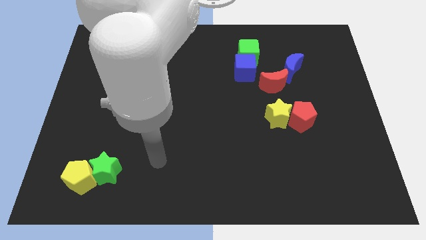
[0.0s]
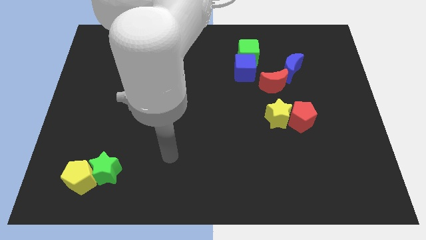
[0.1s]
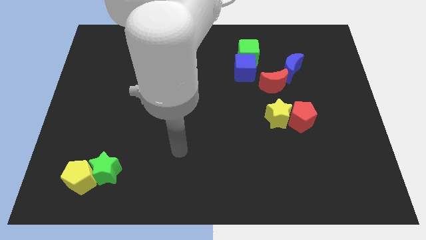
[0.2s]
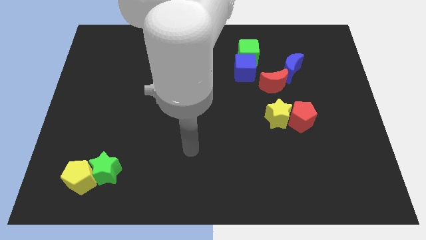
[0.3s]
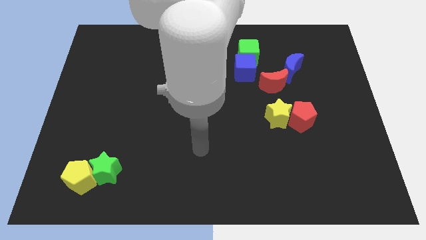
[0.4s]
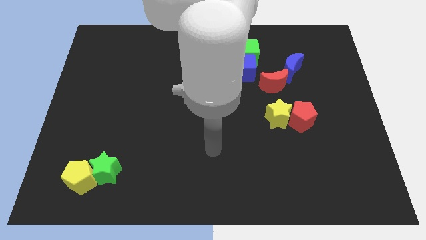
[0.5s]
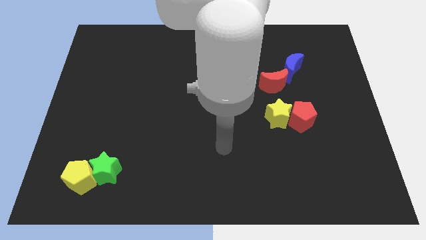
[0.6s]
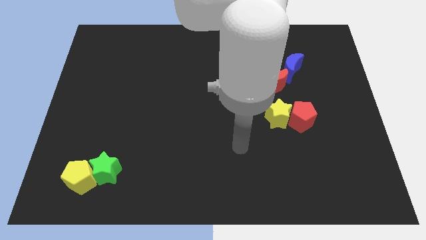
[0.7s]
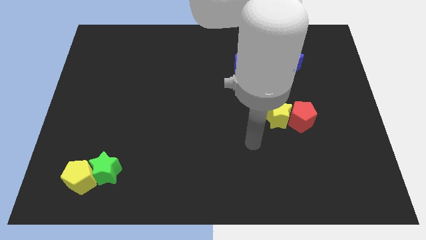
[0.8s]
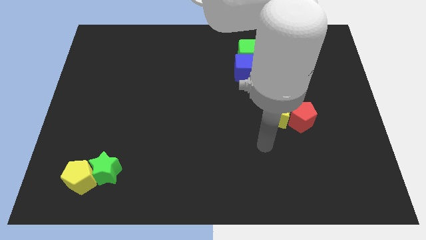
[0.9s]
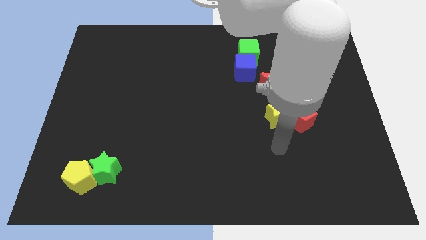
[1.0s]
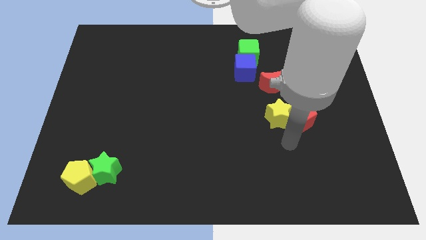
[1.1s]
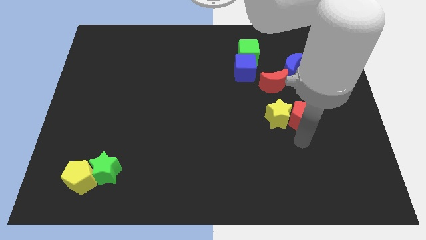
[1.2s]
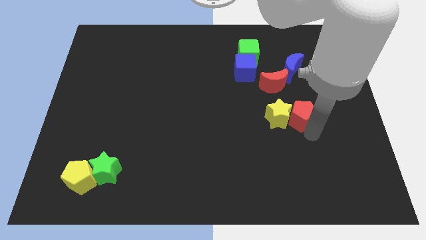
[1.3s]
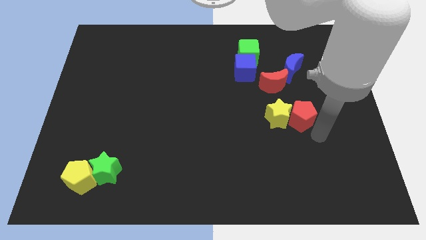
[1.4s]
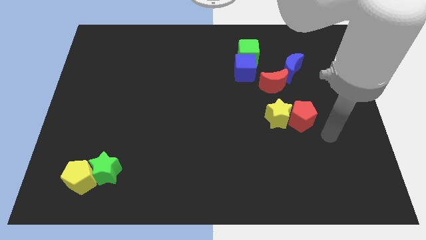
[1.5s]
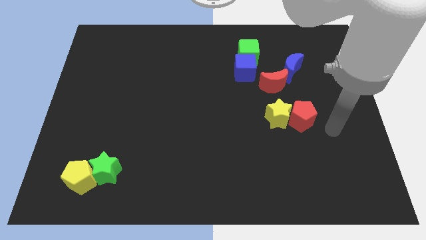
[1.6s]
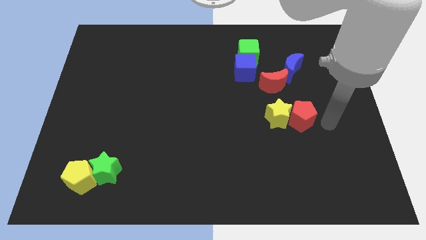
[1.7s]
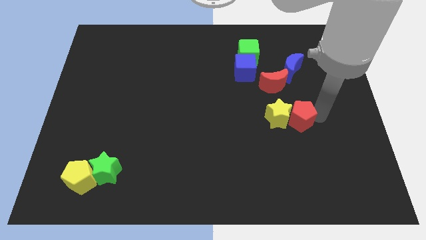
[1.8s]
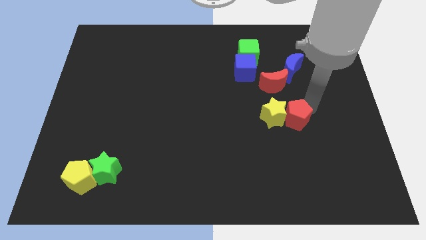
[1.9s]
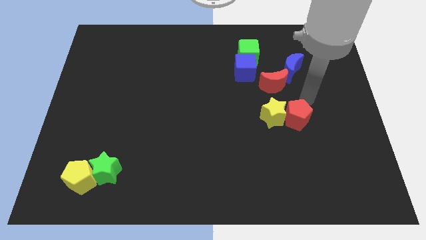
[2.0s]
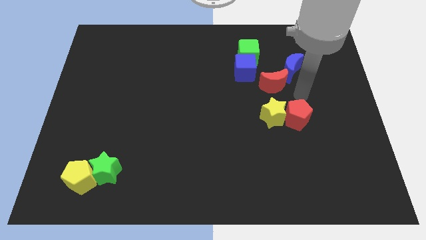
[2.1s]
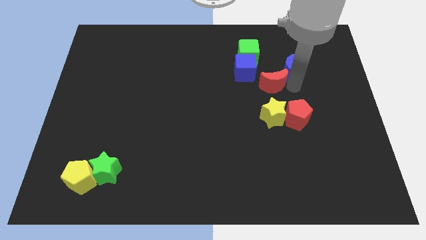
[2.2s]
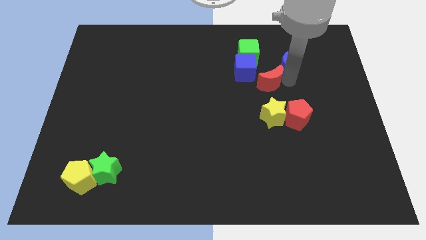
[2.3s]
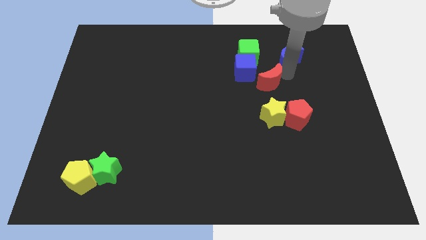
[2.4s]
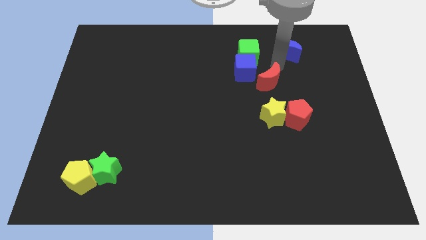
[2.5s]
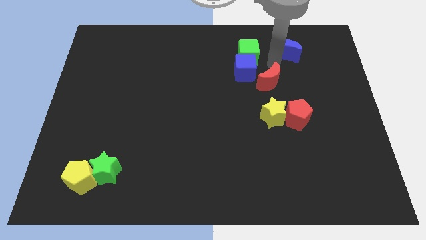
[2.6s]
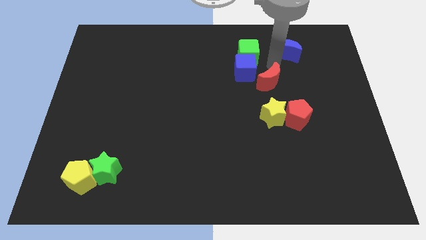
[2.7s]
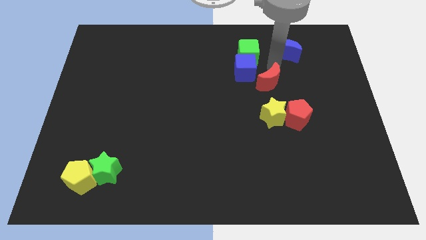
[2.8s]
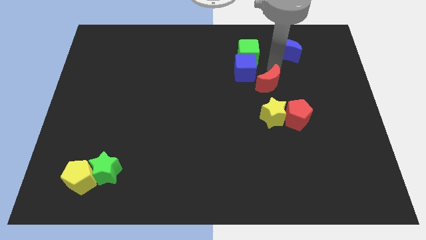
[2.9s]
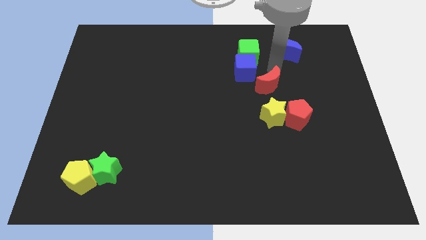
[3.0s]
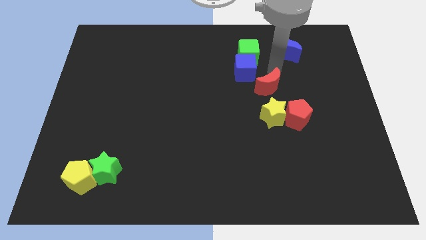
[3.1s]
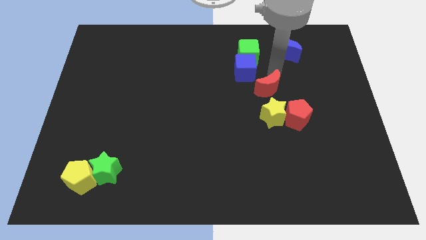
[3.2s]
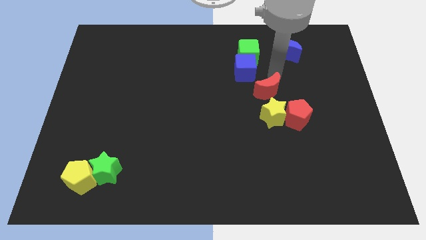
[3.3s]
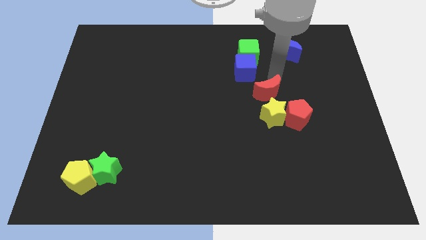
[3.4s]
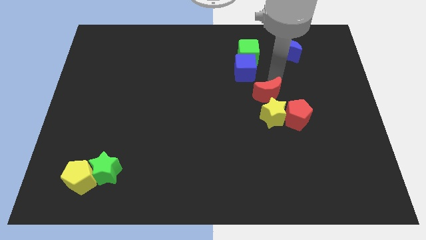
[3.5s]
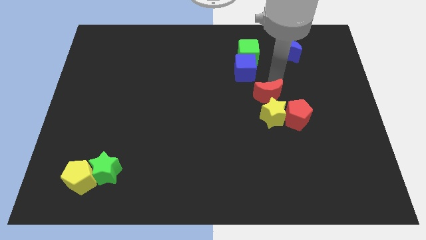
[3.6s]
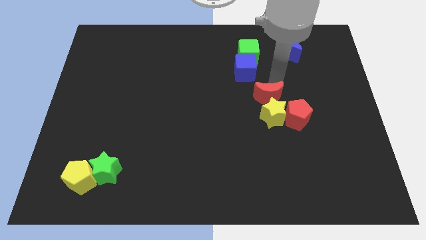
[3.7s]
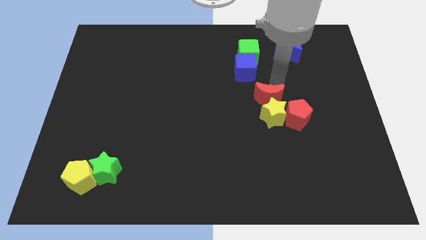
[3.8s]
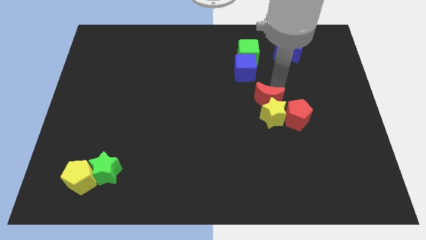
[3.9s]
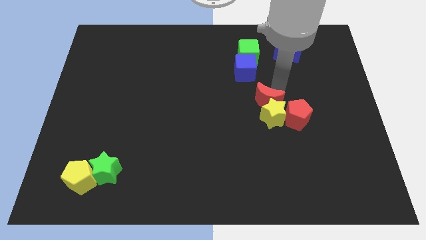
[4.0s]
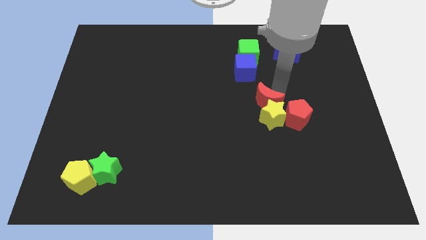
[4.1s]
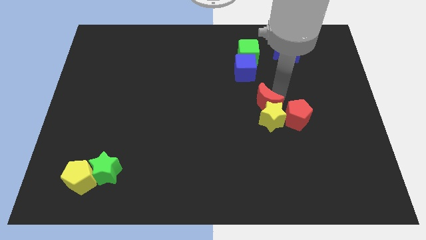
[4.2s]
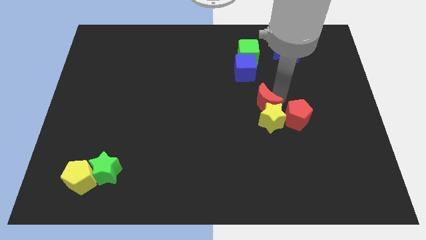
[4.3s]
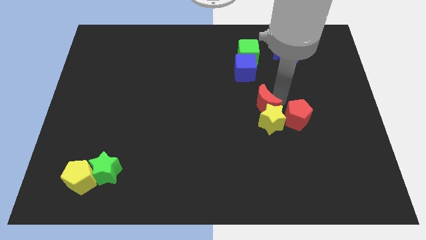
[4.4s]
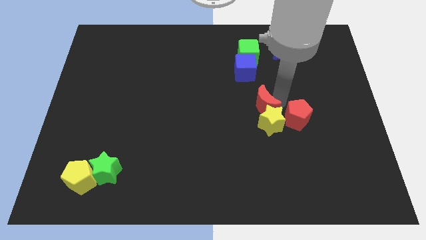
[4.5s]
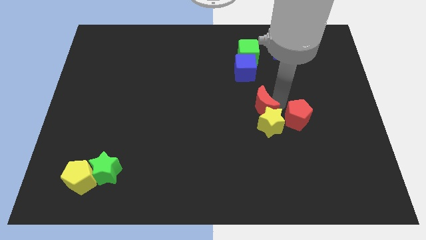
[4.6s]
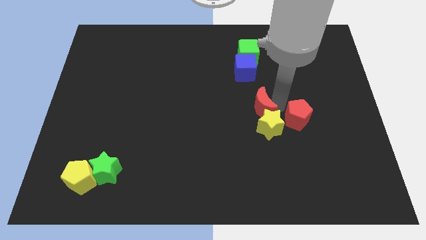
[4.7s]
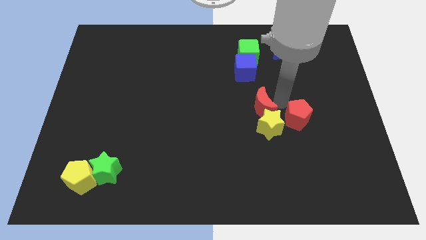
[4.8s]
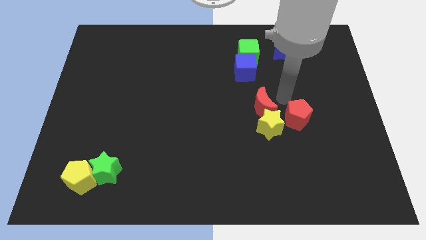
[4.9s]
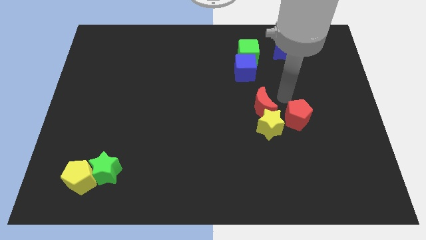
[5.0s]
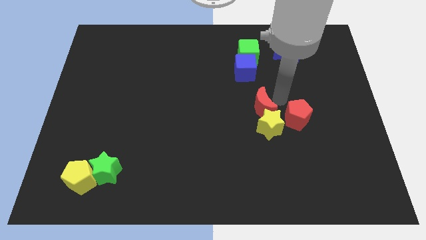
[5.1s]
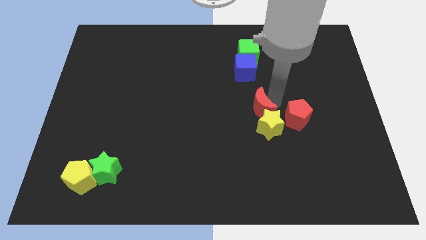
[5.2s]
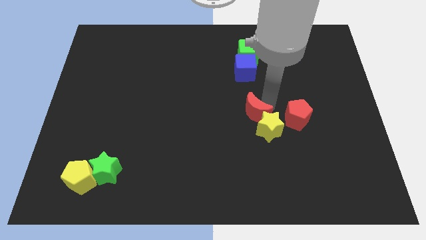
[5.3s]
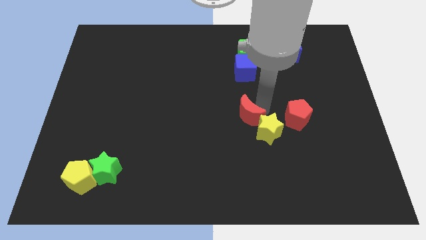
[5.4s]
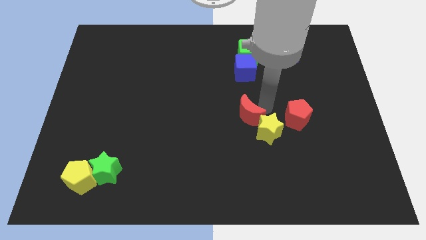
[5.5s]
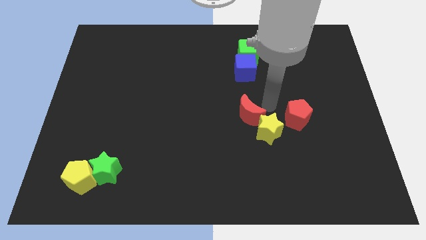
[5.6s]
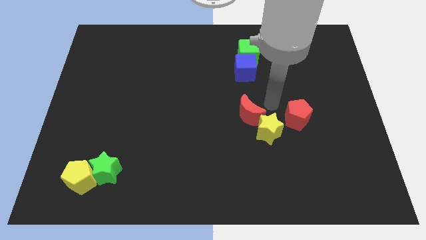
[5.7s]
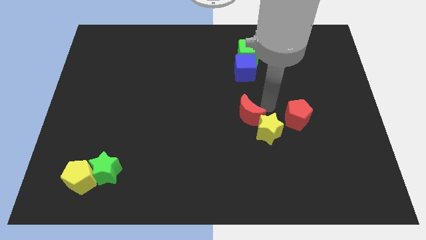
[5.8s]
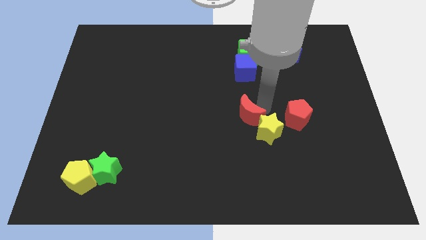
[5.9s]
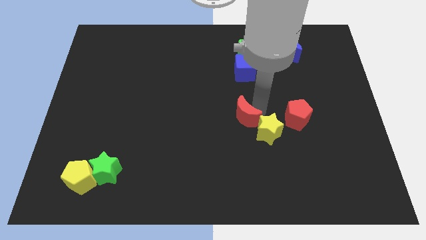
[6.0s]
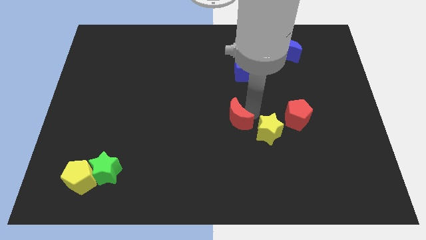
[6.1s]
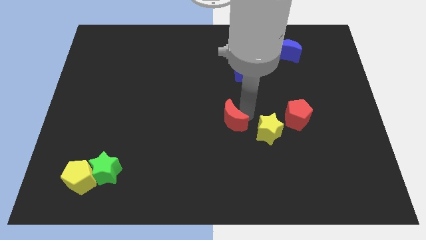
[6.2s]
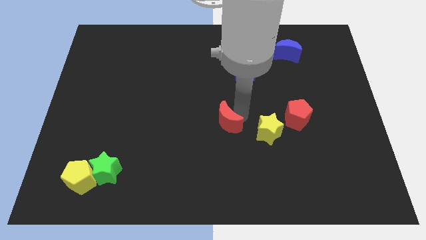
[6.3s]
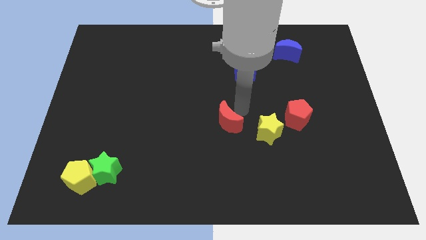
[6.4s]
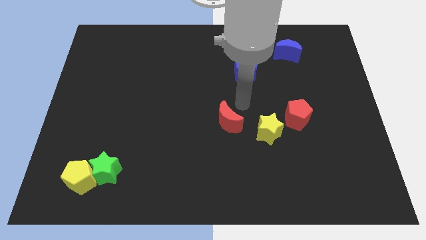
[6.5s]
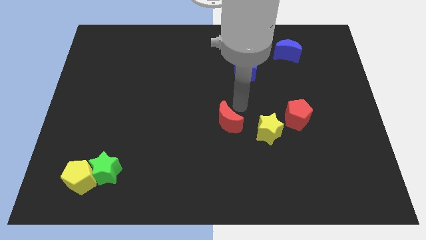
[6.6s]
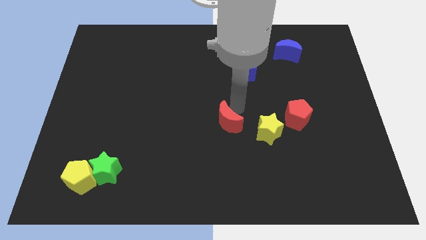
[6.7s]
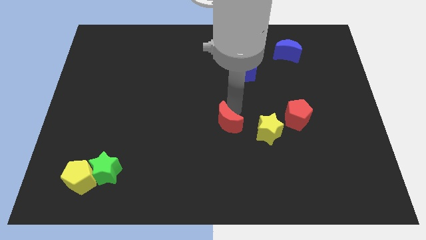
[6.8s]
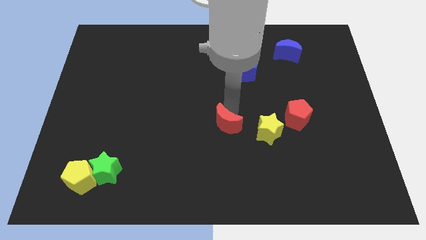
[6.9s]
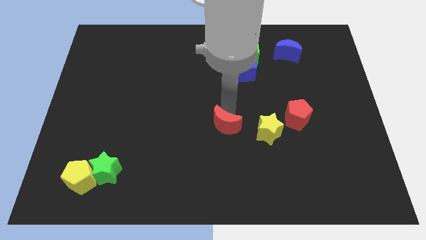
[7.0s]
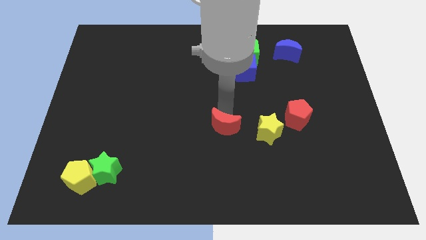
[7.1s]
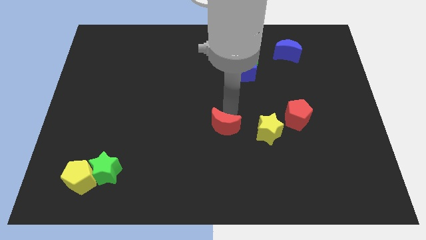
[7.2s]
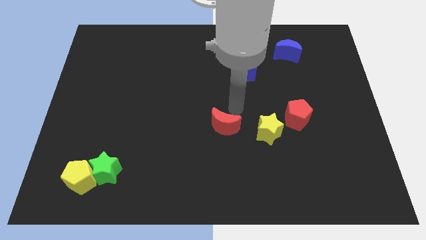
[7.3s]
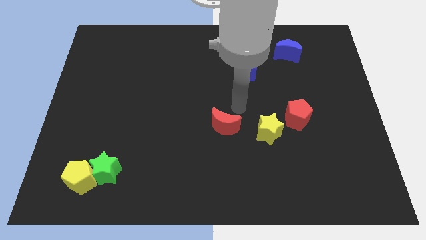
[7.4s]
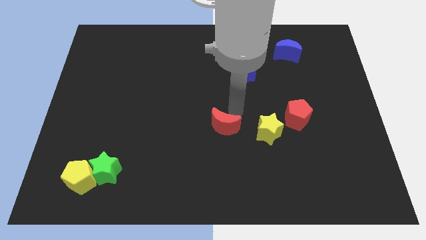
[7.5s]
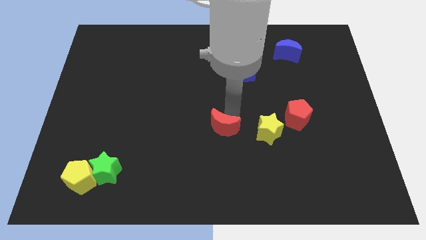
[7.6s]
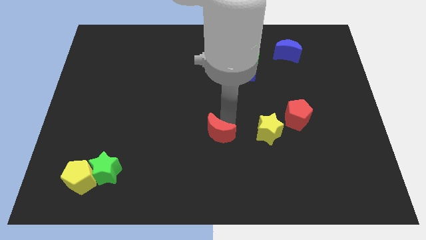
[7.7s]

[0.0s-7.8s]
slide the red moon downwards and left

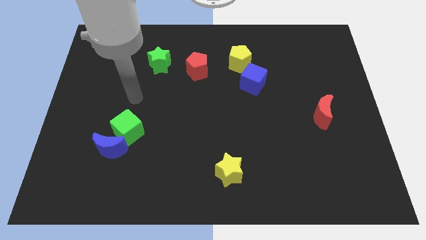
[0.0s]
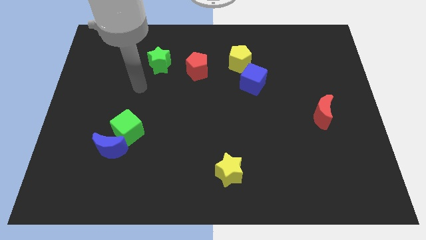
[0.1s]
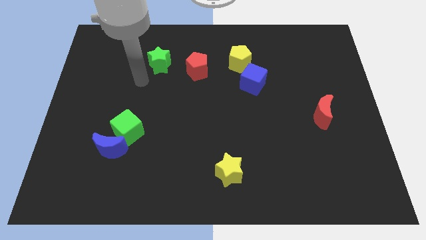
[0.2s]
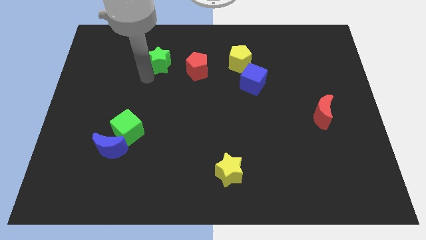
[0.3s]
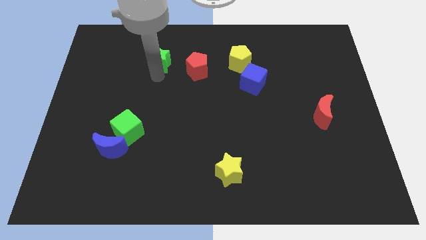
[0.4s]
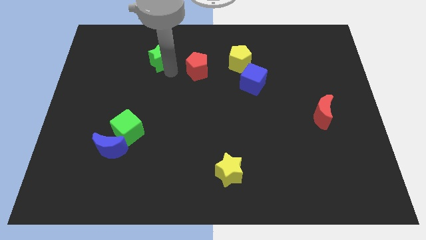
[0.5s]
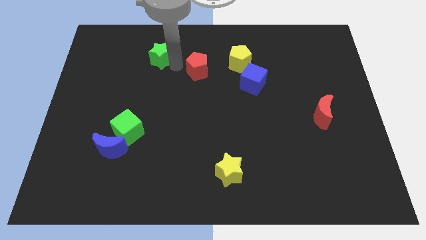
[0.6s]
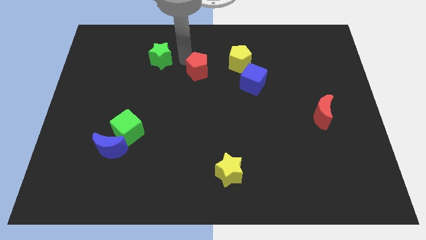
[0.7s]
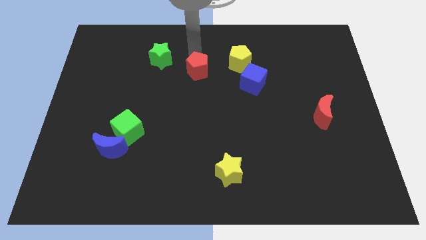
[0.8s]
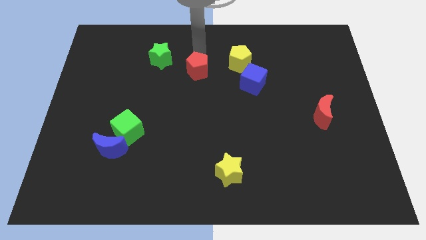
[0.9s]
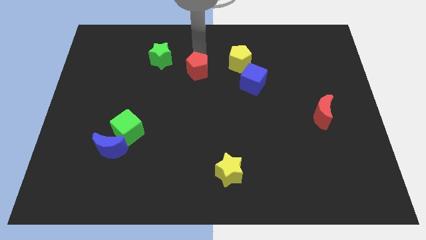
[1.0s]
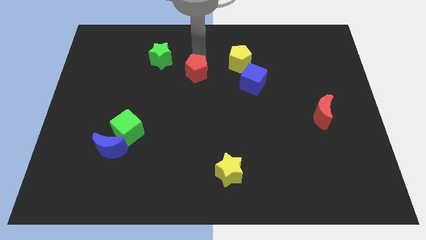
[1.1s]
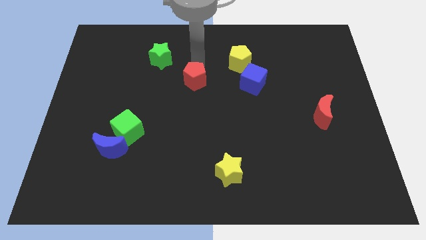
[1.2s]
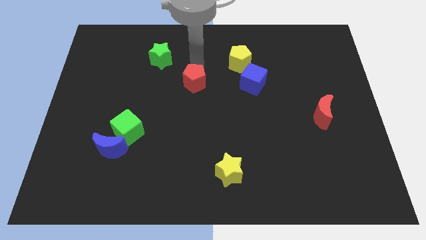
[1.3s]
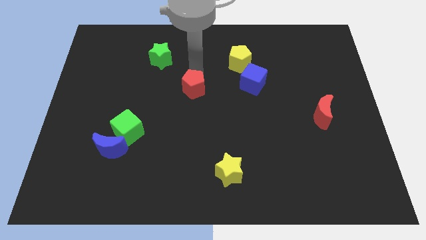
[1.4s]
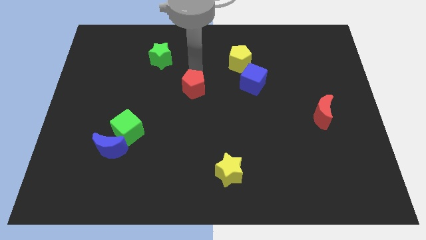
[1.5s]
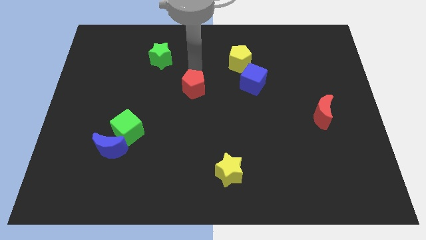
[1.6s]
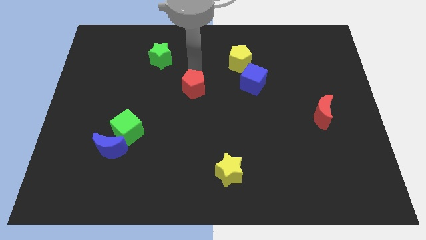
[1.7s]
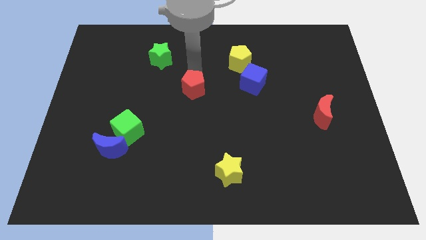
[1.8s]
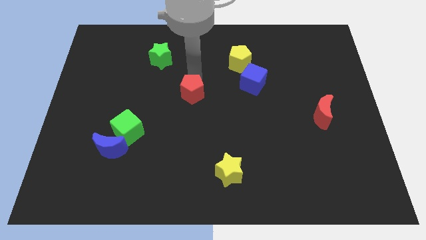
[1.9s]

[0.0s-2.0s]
push the red pentagon a little bit downwards
